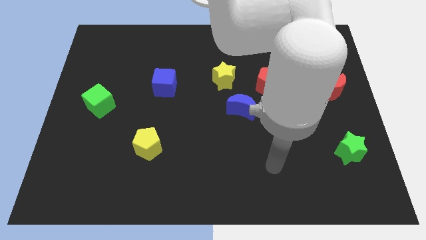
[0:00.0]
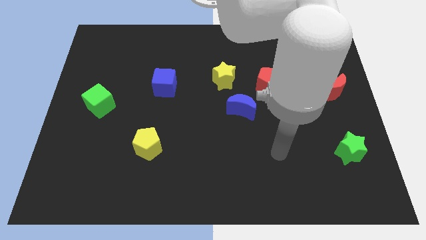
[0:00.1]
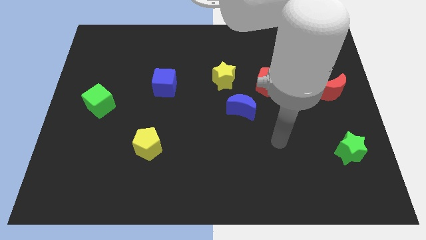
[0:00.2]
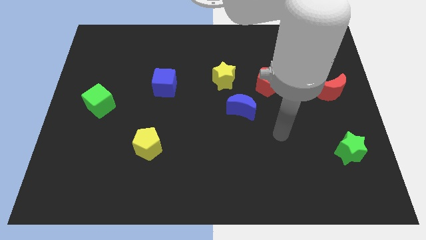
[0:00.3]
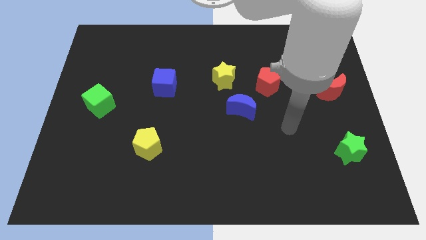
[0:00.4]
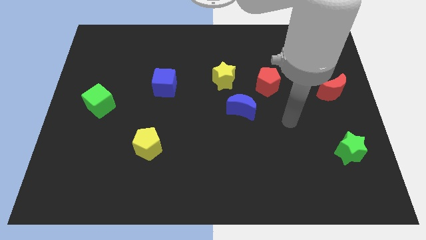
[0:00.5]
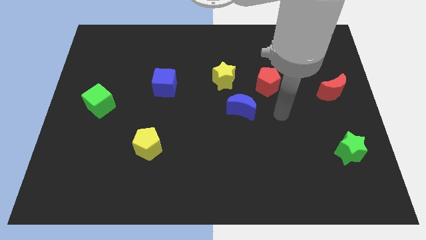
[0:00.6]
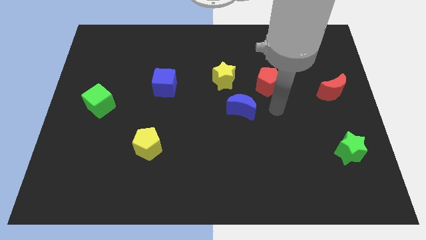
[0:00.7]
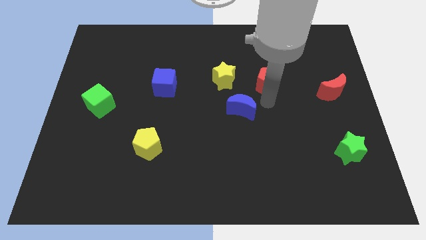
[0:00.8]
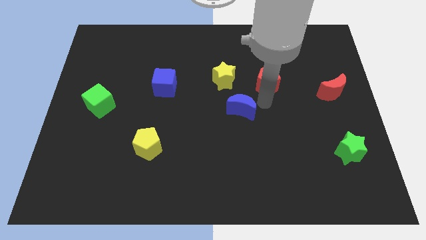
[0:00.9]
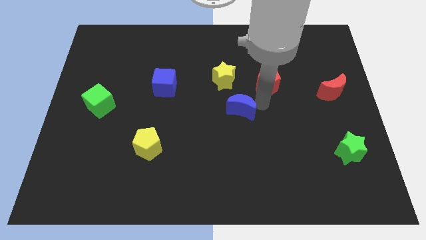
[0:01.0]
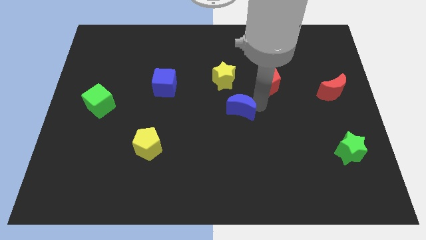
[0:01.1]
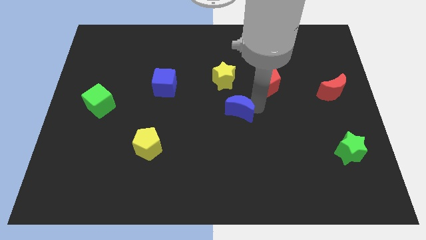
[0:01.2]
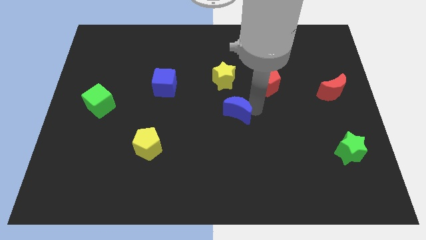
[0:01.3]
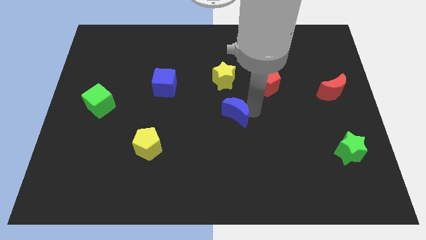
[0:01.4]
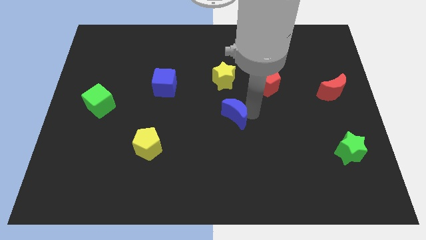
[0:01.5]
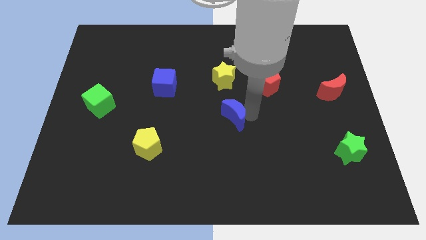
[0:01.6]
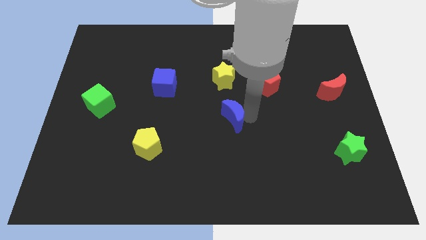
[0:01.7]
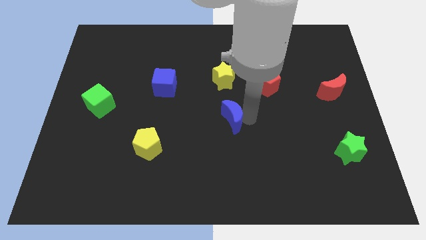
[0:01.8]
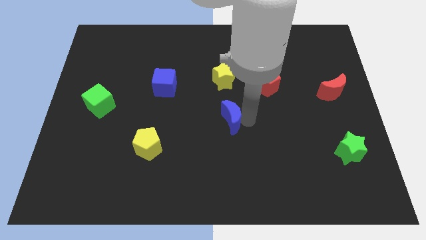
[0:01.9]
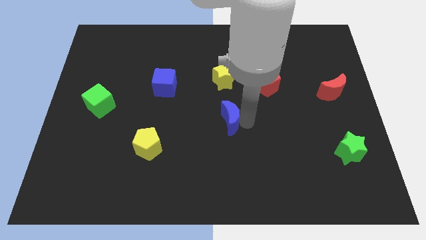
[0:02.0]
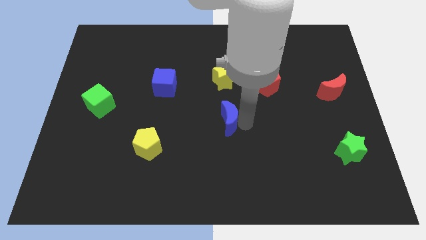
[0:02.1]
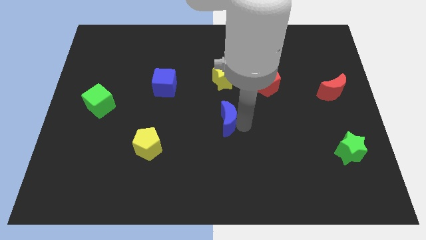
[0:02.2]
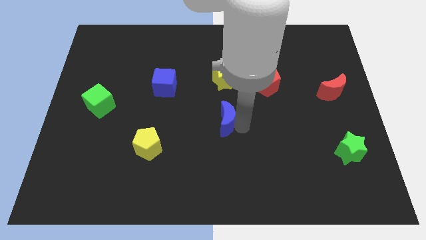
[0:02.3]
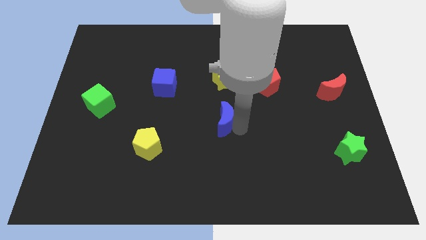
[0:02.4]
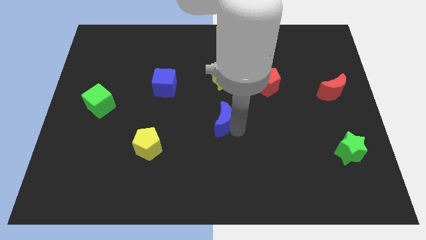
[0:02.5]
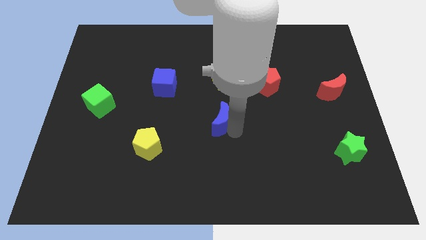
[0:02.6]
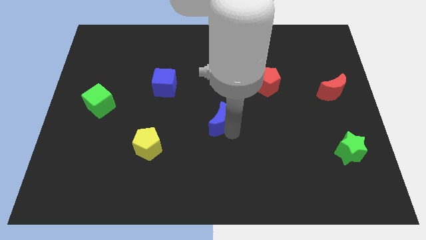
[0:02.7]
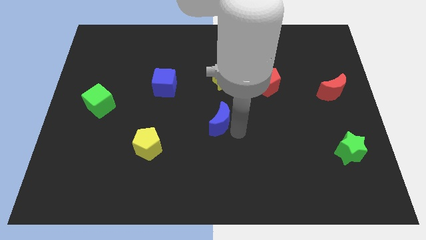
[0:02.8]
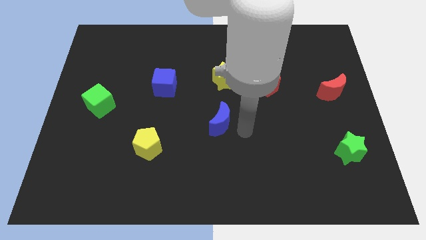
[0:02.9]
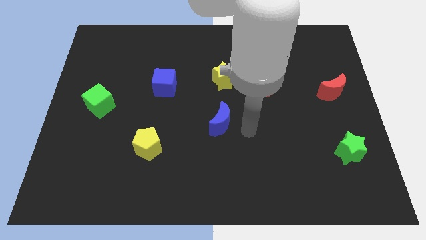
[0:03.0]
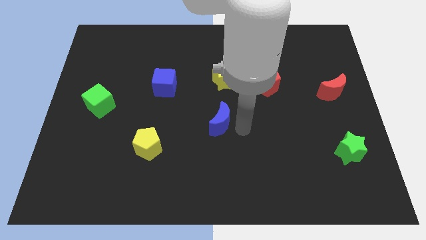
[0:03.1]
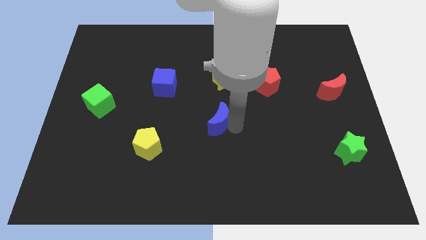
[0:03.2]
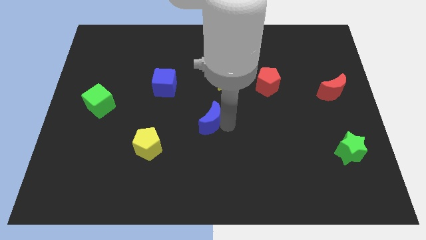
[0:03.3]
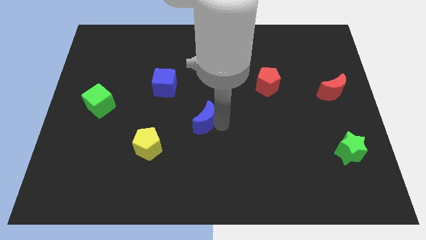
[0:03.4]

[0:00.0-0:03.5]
push the blue moon a bit to the left

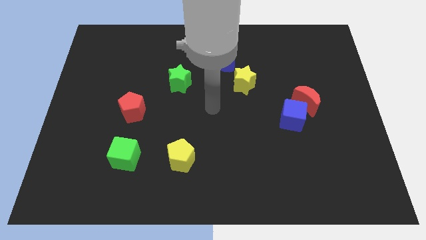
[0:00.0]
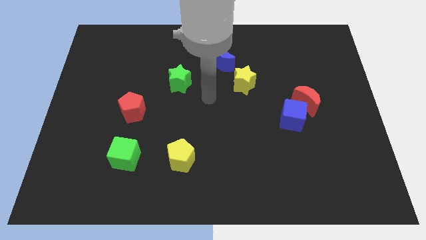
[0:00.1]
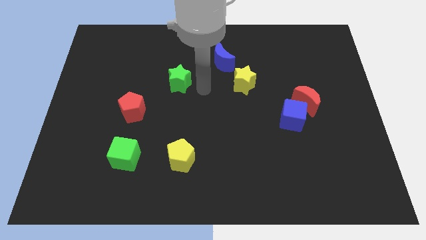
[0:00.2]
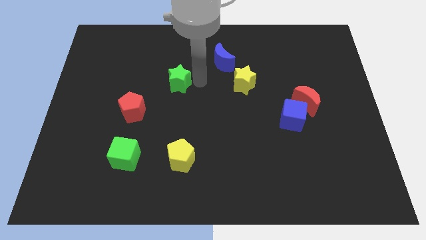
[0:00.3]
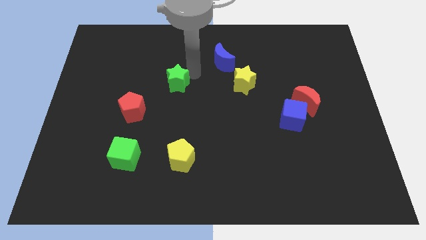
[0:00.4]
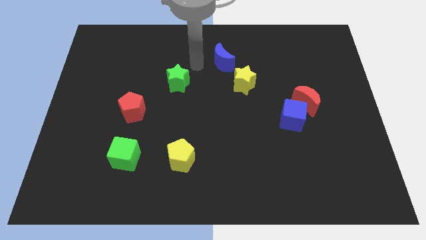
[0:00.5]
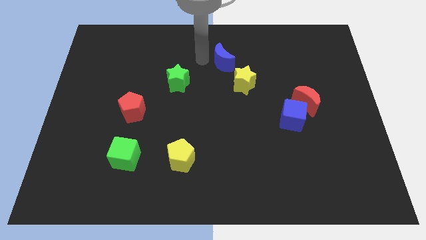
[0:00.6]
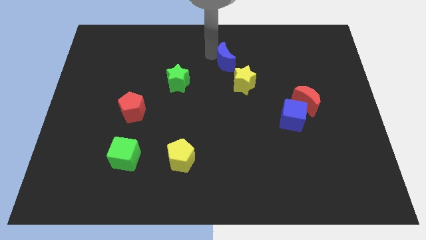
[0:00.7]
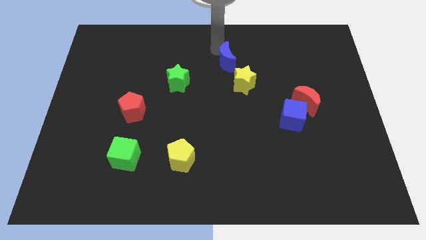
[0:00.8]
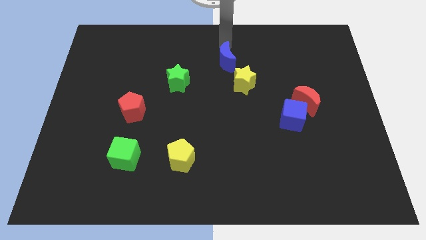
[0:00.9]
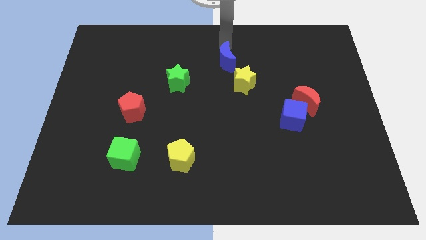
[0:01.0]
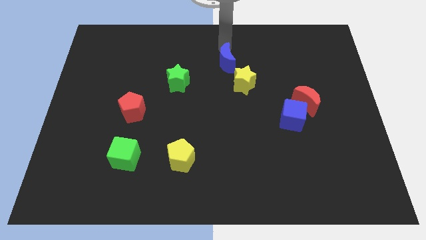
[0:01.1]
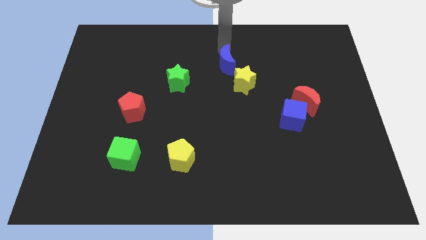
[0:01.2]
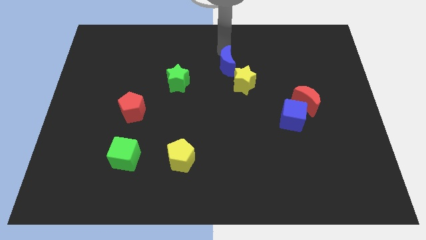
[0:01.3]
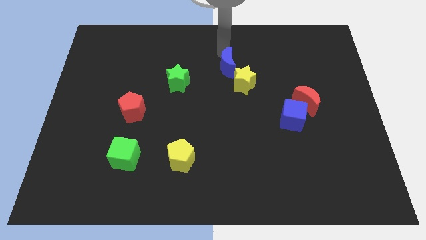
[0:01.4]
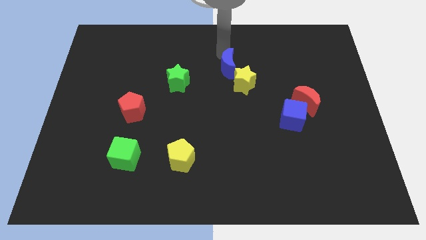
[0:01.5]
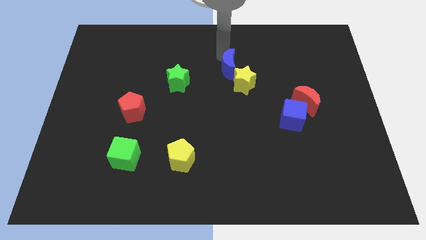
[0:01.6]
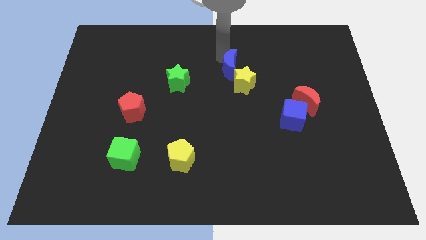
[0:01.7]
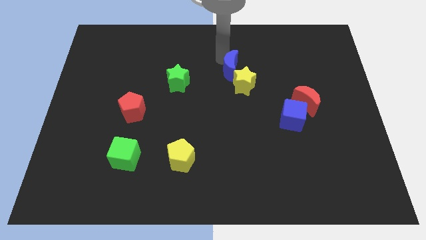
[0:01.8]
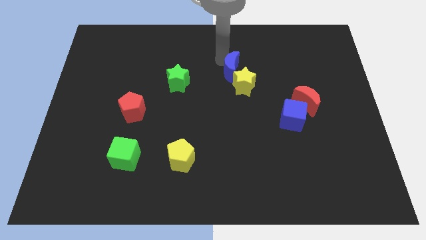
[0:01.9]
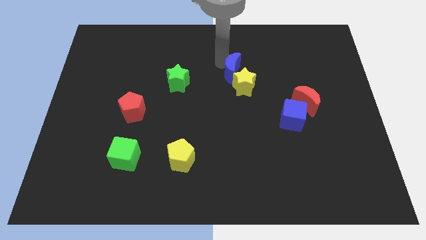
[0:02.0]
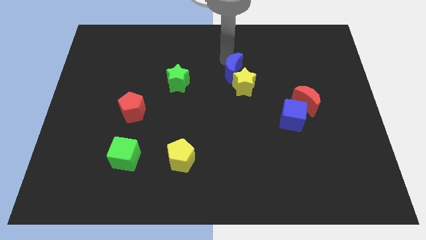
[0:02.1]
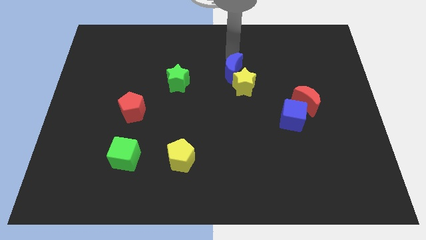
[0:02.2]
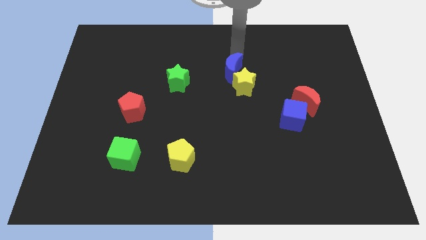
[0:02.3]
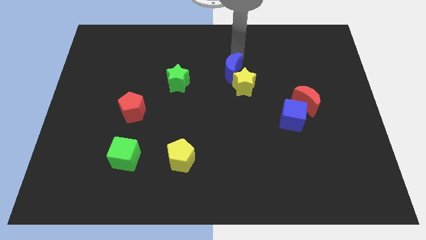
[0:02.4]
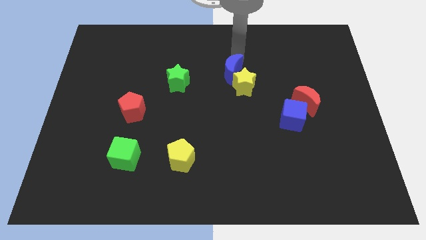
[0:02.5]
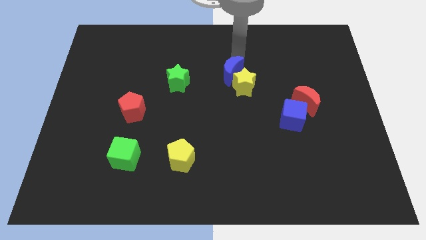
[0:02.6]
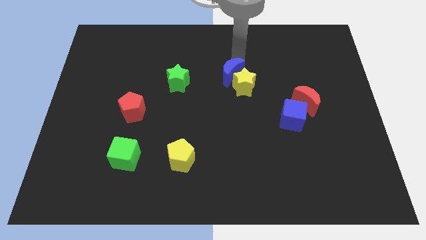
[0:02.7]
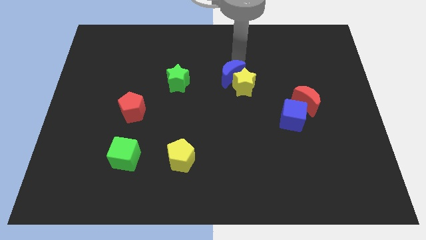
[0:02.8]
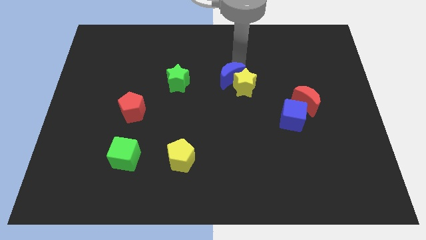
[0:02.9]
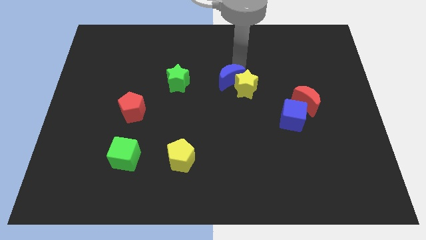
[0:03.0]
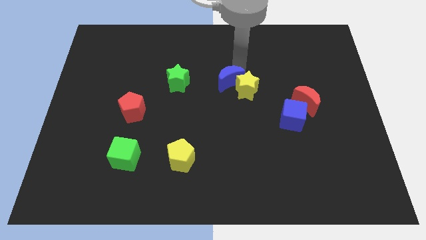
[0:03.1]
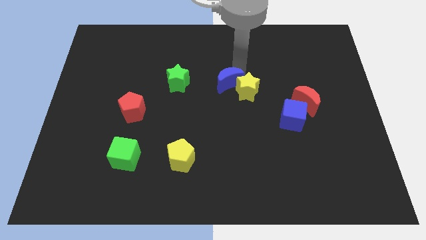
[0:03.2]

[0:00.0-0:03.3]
slightly move the blue moon down

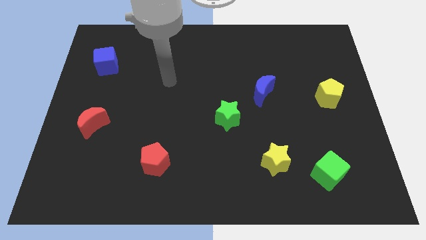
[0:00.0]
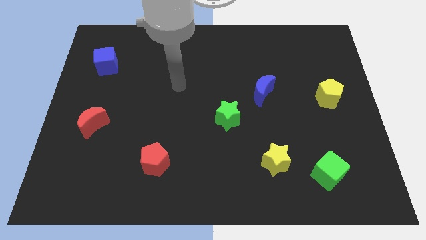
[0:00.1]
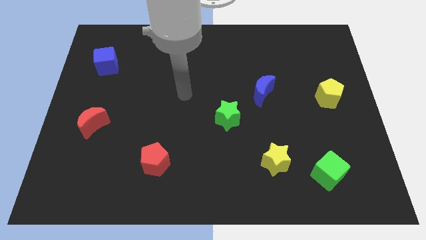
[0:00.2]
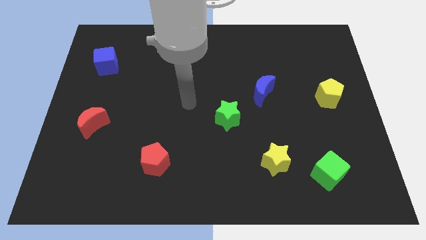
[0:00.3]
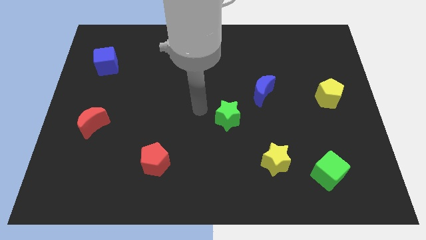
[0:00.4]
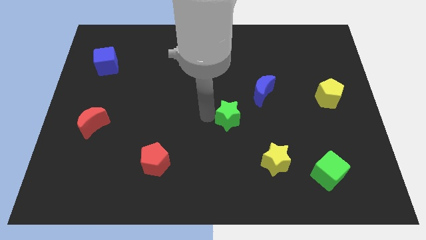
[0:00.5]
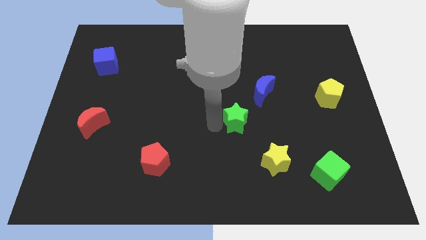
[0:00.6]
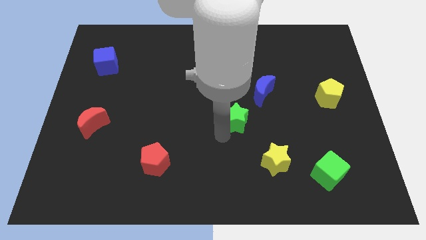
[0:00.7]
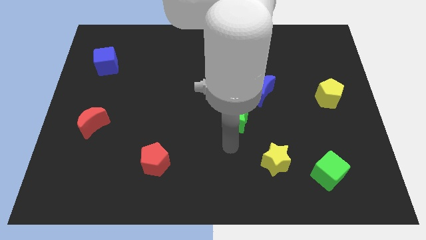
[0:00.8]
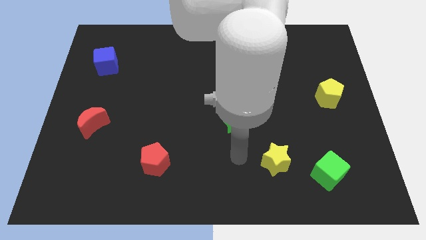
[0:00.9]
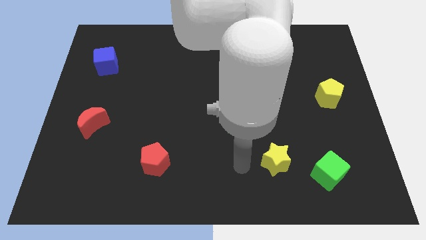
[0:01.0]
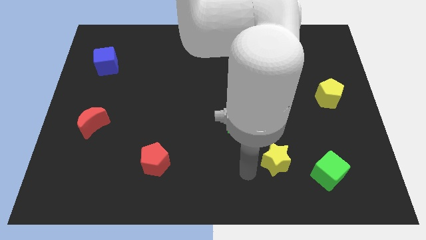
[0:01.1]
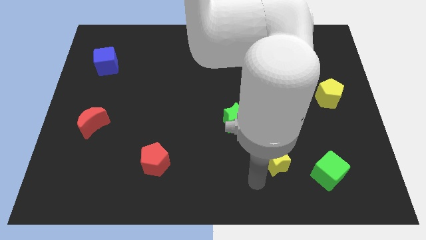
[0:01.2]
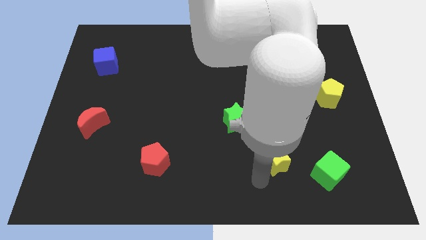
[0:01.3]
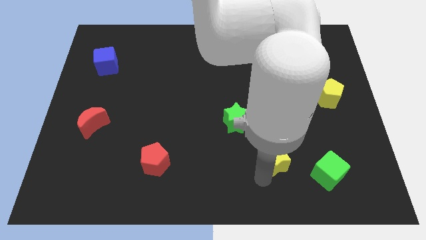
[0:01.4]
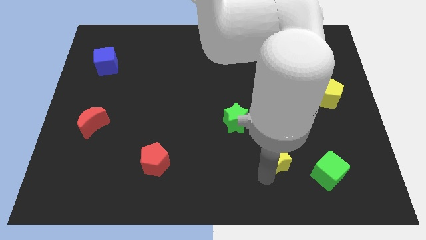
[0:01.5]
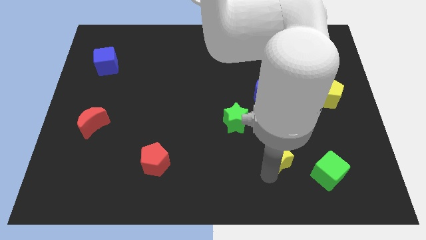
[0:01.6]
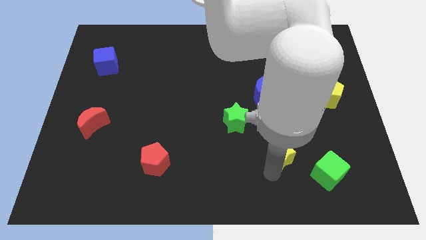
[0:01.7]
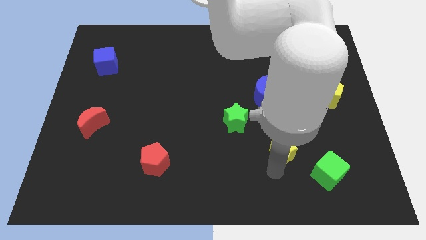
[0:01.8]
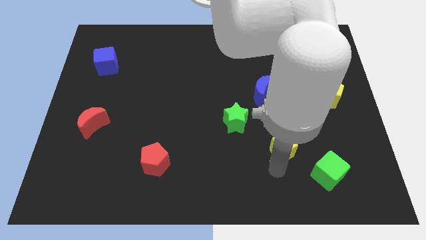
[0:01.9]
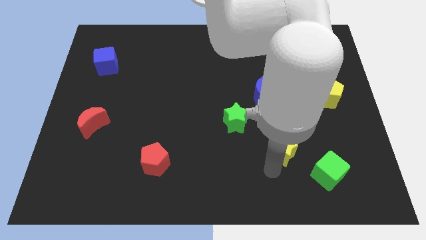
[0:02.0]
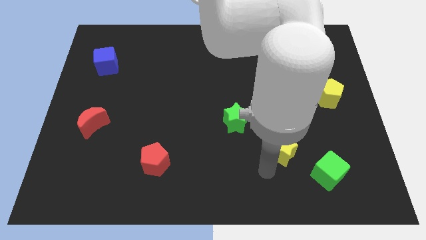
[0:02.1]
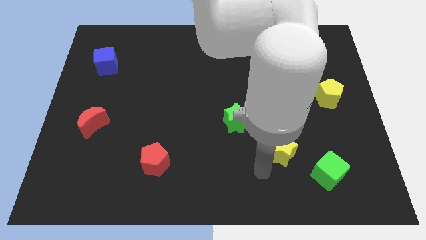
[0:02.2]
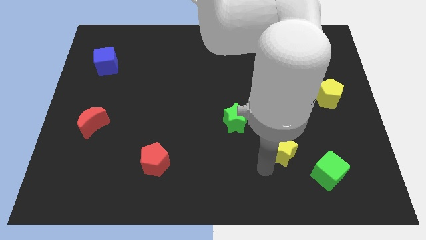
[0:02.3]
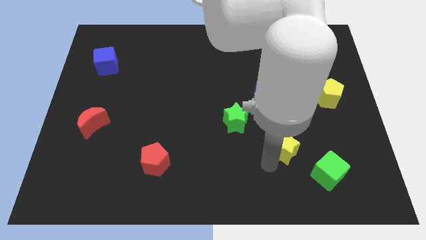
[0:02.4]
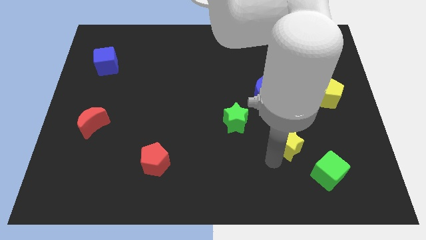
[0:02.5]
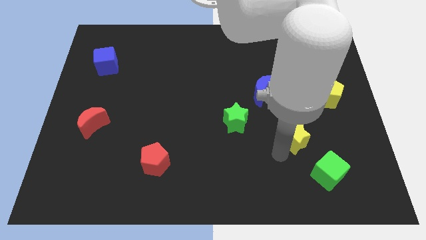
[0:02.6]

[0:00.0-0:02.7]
slightly move the yellow star up and right diagonally
